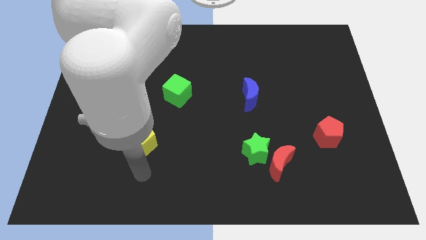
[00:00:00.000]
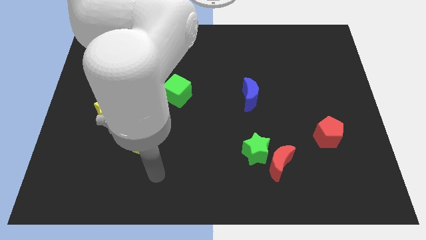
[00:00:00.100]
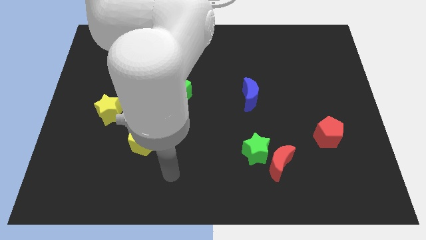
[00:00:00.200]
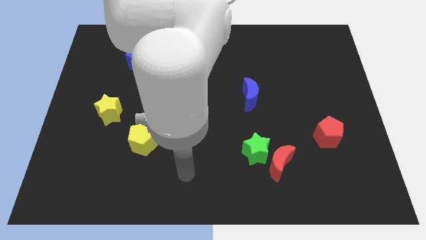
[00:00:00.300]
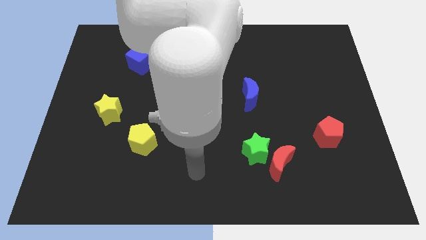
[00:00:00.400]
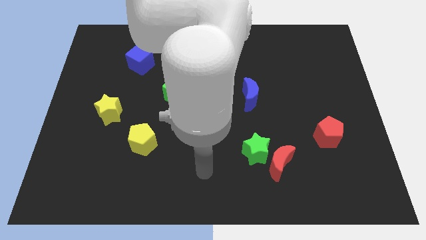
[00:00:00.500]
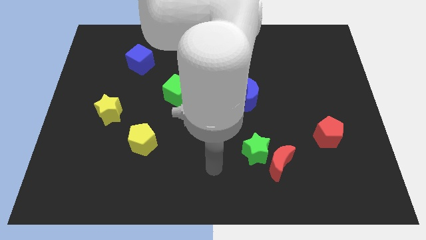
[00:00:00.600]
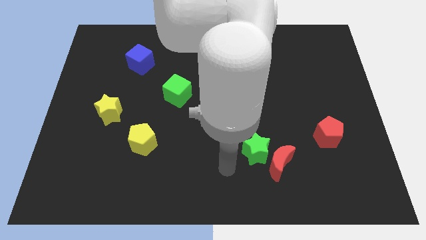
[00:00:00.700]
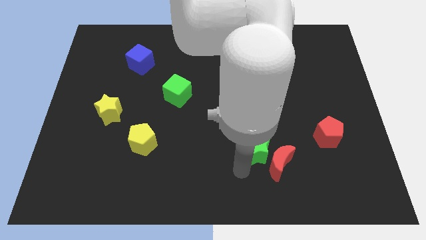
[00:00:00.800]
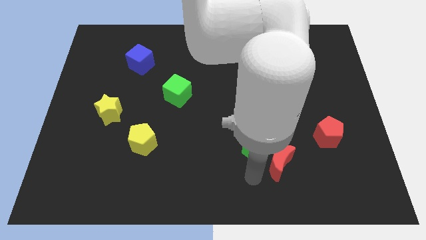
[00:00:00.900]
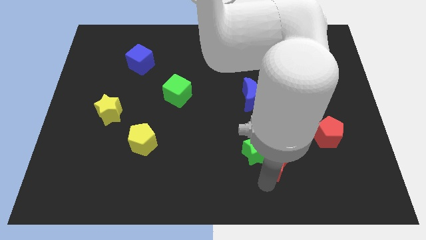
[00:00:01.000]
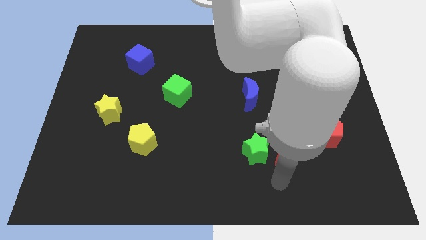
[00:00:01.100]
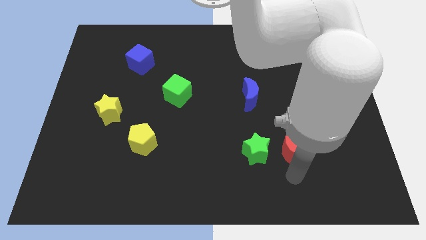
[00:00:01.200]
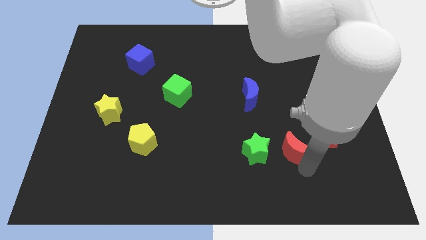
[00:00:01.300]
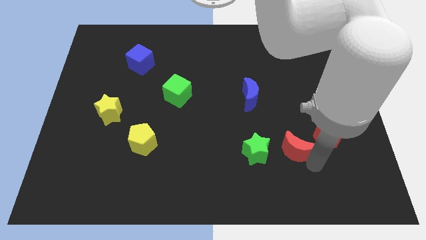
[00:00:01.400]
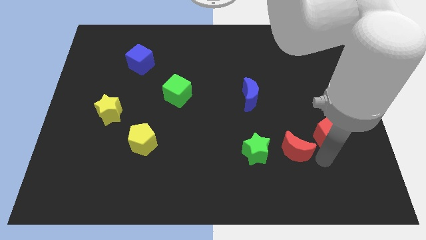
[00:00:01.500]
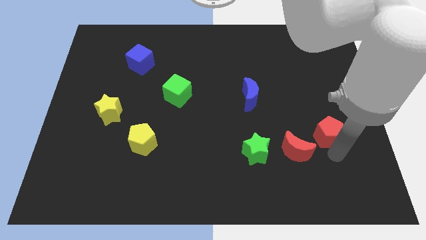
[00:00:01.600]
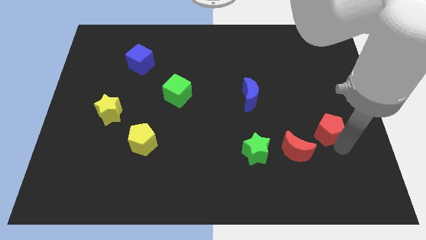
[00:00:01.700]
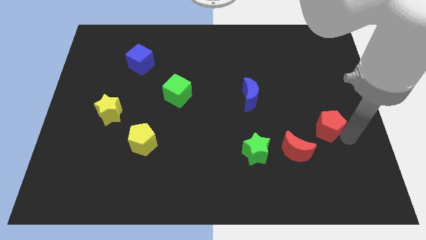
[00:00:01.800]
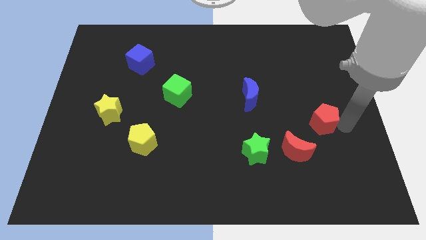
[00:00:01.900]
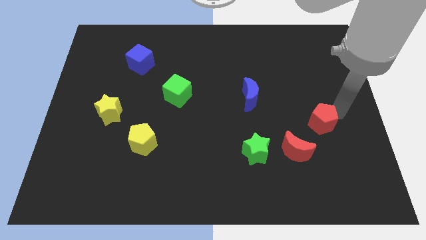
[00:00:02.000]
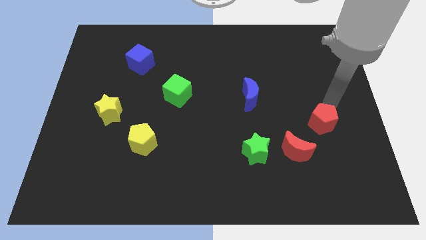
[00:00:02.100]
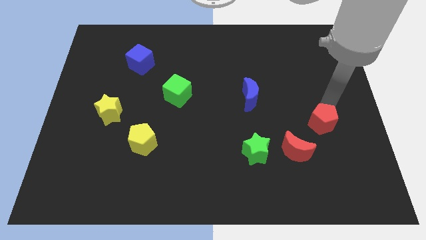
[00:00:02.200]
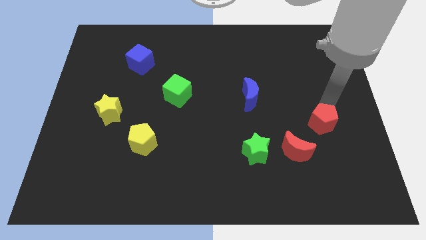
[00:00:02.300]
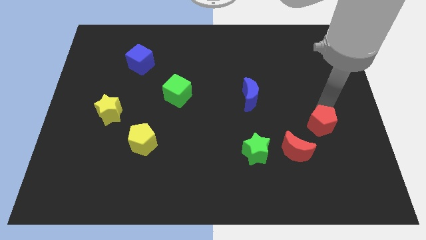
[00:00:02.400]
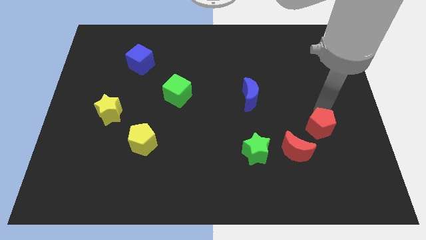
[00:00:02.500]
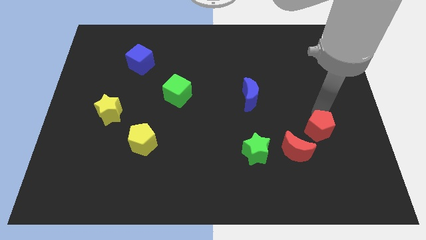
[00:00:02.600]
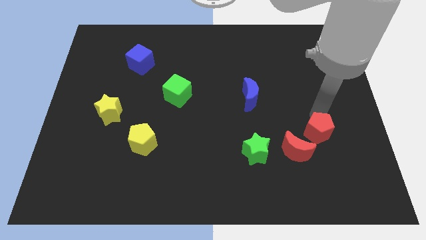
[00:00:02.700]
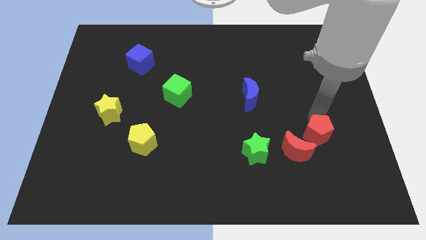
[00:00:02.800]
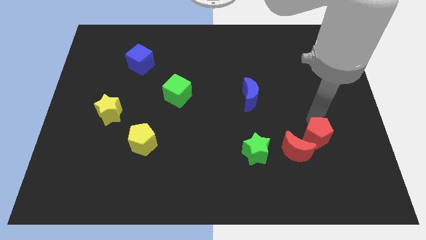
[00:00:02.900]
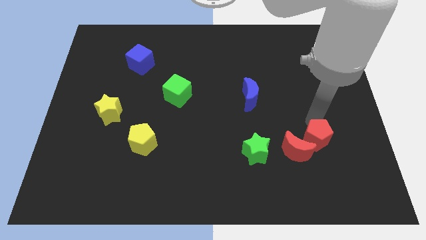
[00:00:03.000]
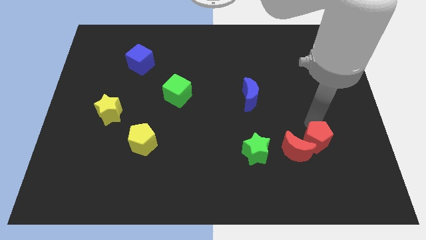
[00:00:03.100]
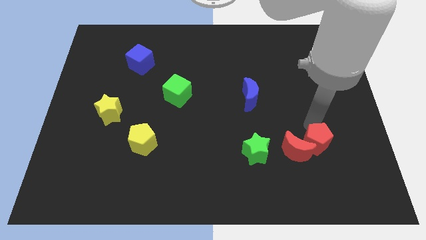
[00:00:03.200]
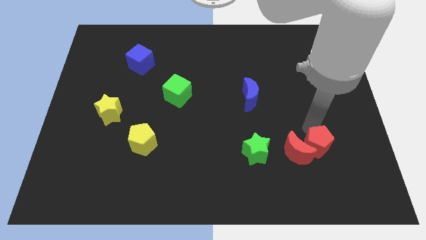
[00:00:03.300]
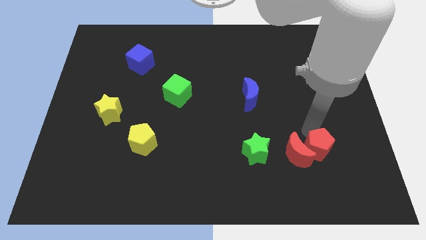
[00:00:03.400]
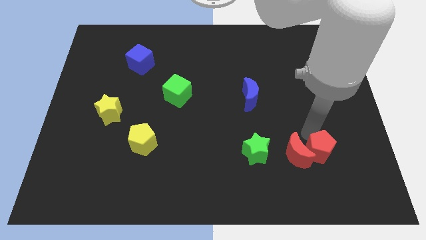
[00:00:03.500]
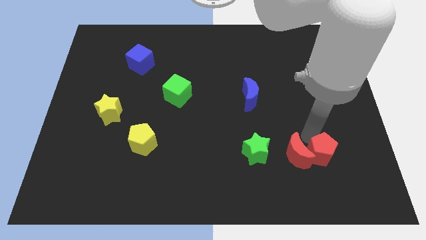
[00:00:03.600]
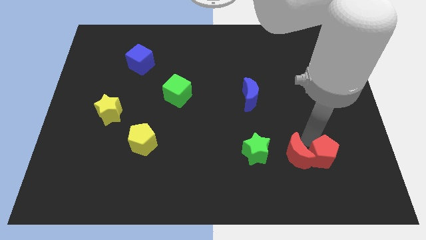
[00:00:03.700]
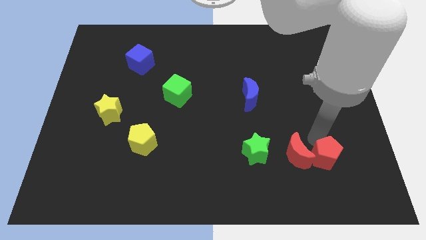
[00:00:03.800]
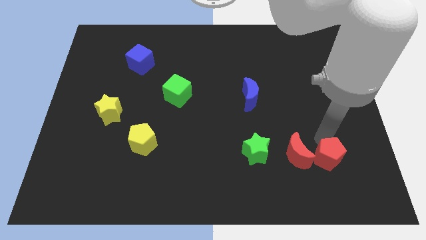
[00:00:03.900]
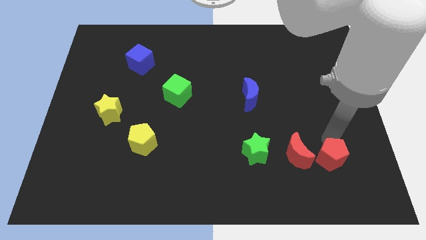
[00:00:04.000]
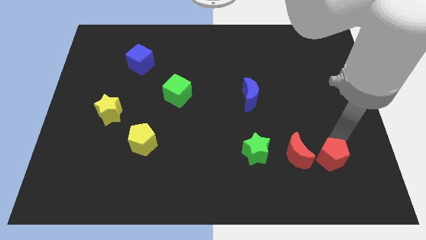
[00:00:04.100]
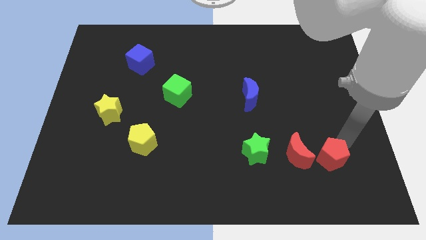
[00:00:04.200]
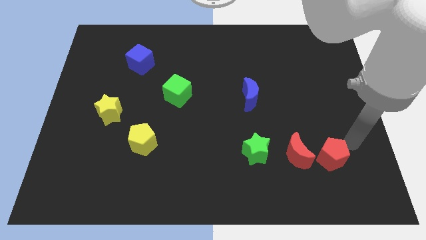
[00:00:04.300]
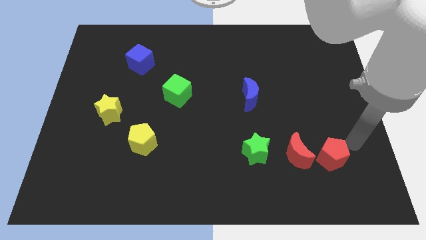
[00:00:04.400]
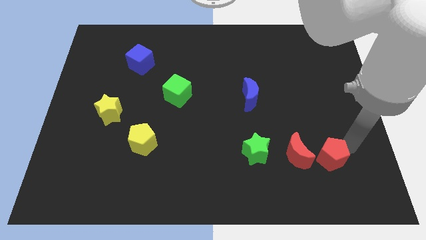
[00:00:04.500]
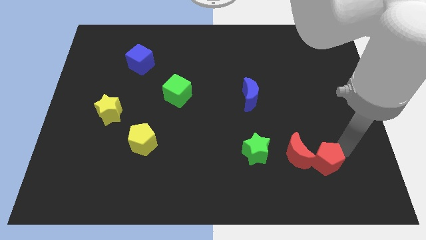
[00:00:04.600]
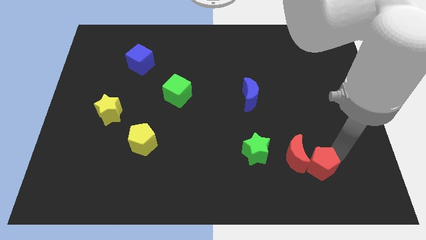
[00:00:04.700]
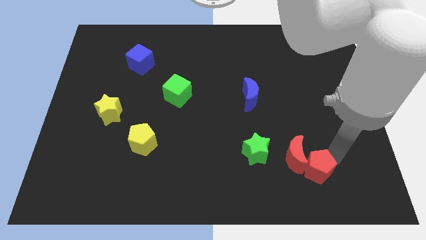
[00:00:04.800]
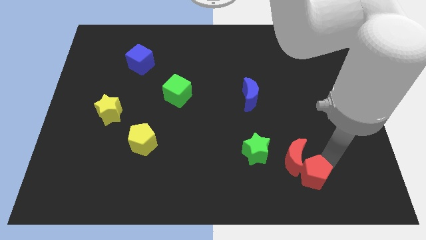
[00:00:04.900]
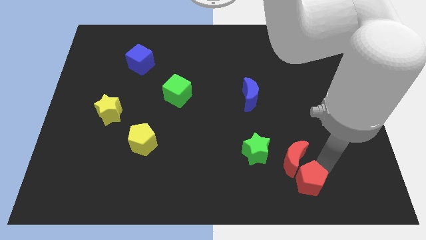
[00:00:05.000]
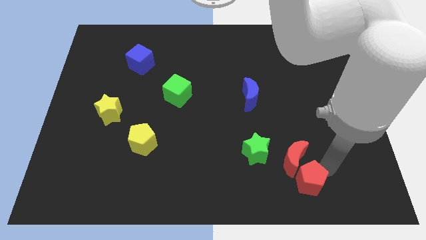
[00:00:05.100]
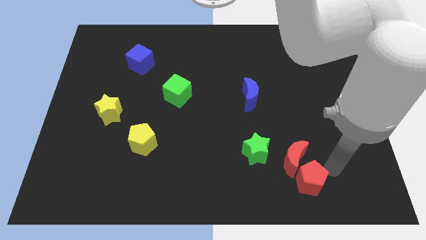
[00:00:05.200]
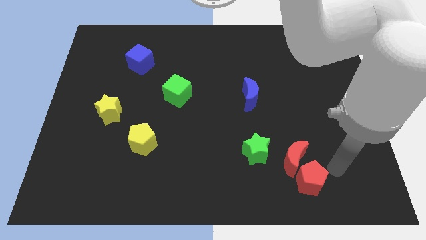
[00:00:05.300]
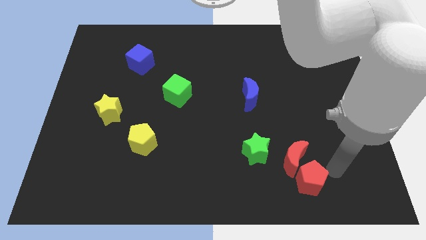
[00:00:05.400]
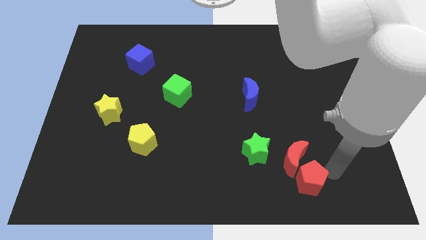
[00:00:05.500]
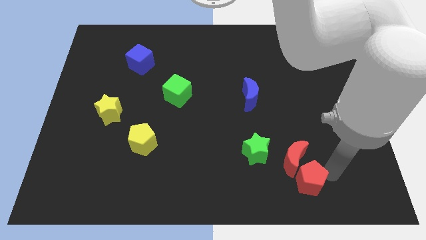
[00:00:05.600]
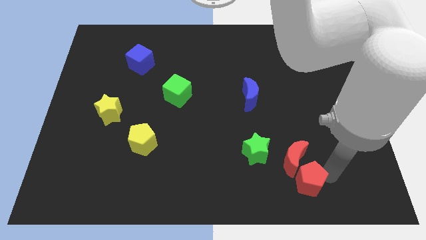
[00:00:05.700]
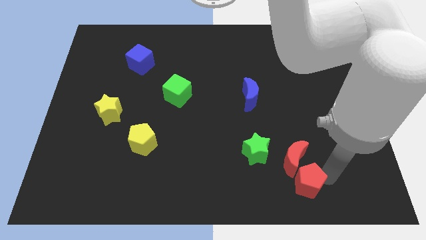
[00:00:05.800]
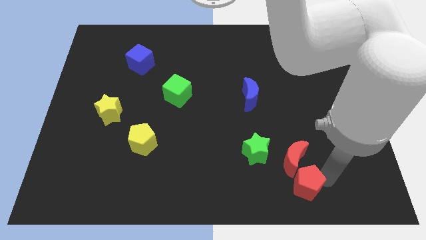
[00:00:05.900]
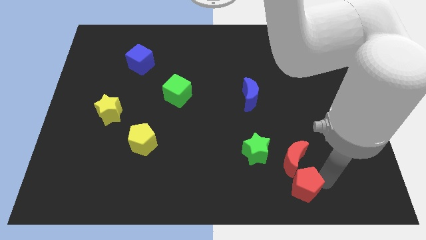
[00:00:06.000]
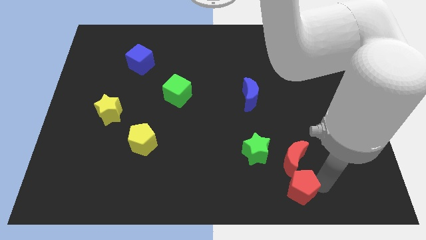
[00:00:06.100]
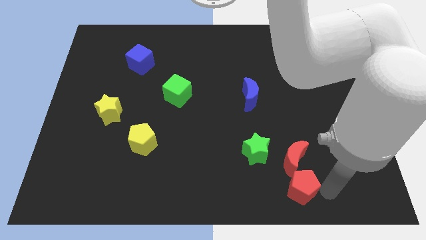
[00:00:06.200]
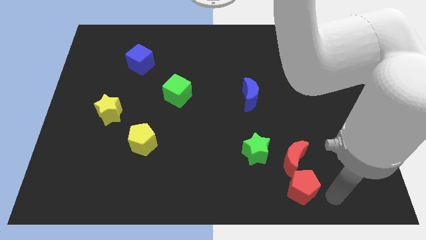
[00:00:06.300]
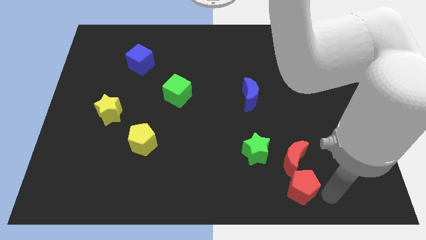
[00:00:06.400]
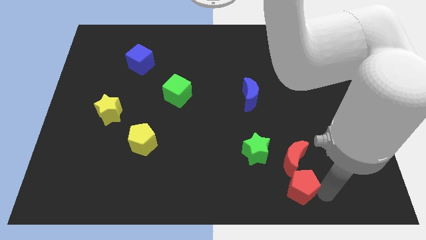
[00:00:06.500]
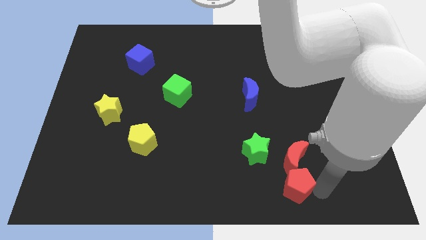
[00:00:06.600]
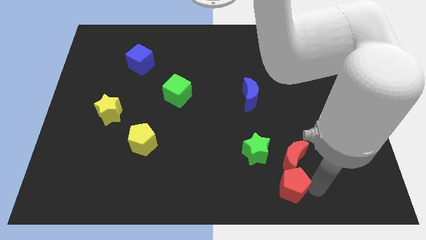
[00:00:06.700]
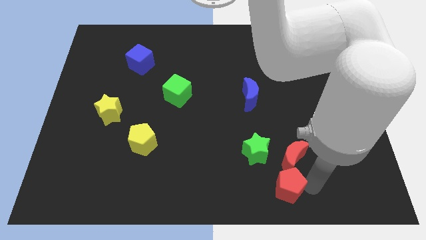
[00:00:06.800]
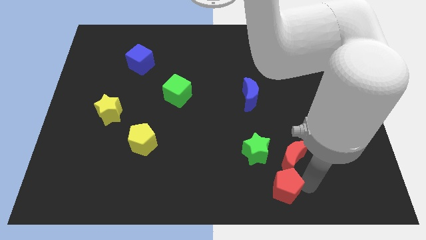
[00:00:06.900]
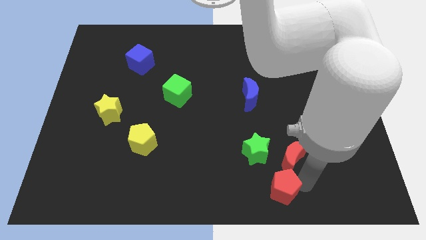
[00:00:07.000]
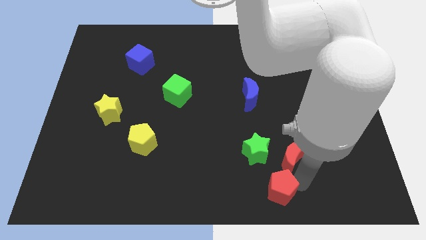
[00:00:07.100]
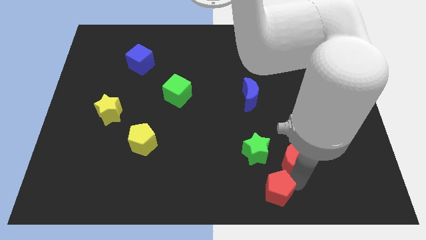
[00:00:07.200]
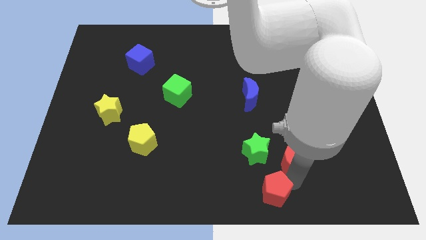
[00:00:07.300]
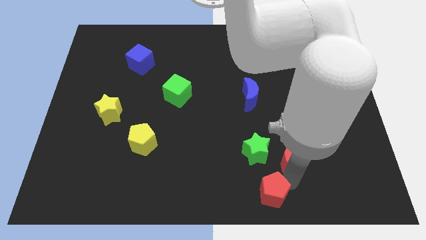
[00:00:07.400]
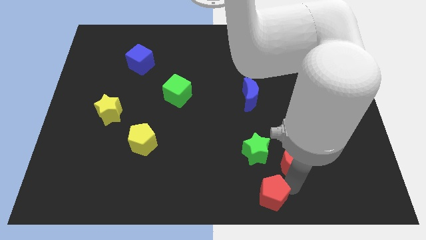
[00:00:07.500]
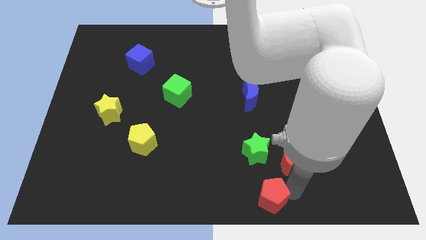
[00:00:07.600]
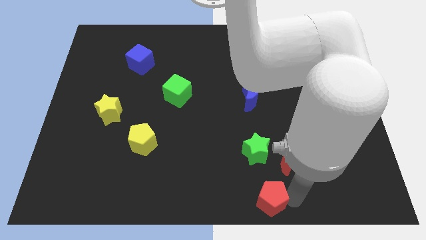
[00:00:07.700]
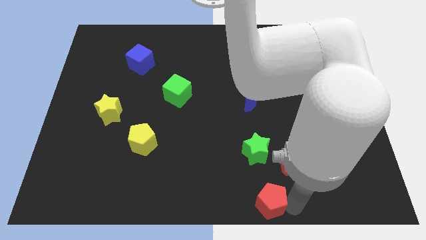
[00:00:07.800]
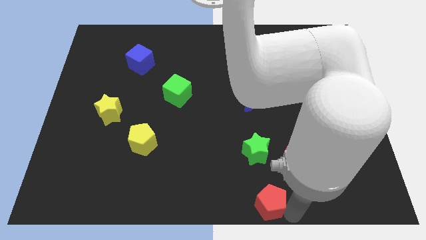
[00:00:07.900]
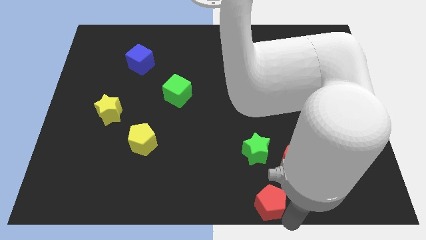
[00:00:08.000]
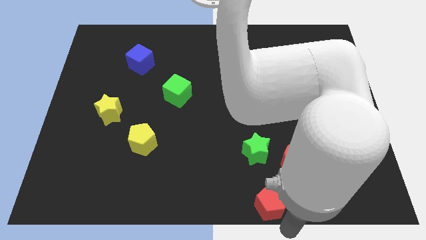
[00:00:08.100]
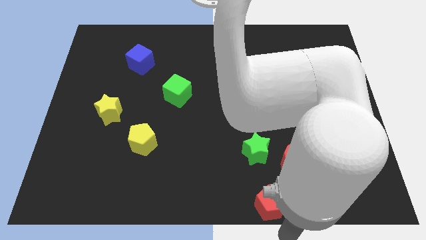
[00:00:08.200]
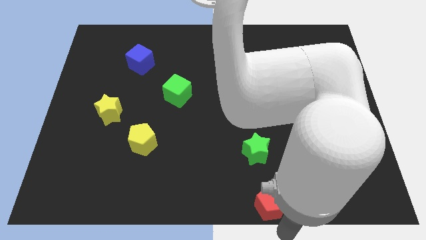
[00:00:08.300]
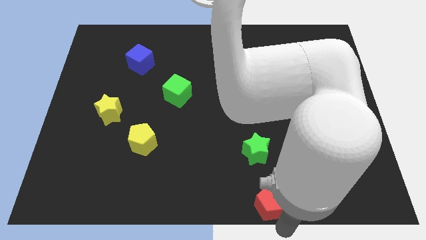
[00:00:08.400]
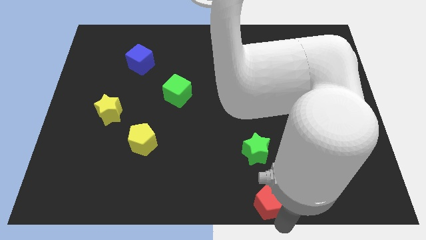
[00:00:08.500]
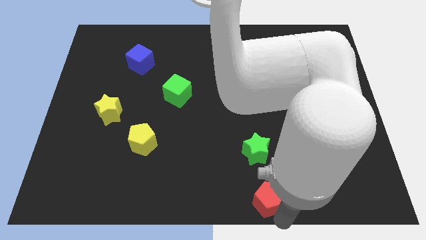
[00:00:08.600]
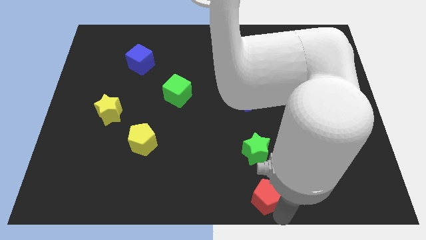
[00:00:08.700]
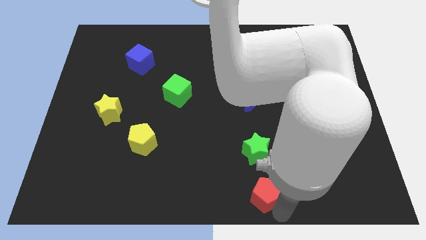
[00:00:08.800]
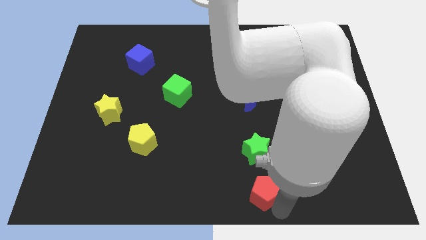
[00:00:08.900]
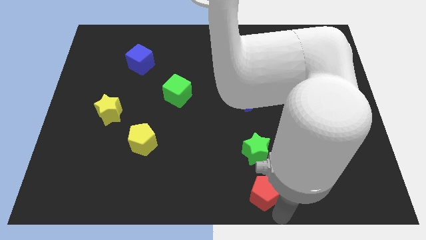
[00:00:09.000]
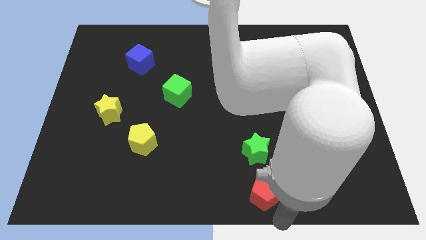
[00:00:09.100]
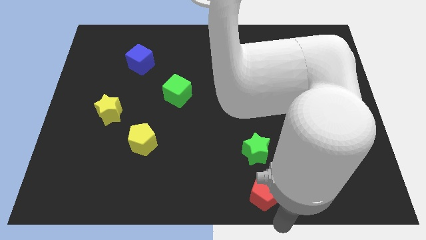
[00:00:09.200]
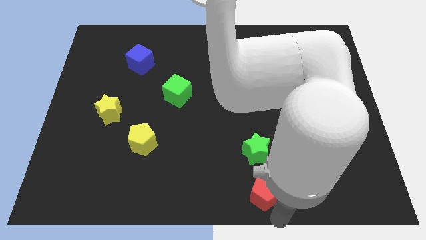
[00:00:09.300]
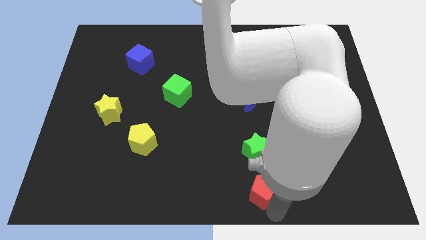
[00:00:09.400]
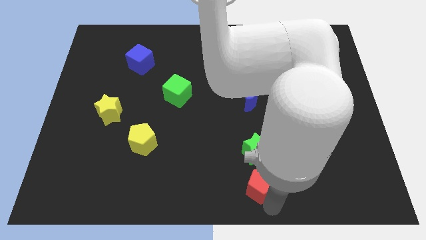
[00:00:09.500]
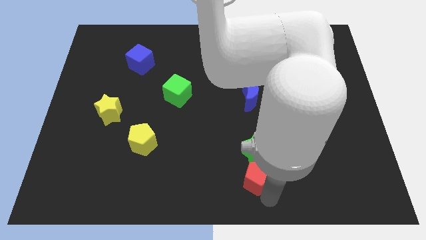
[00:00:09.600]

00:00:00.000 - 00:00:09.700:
push the red pentagon to the bottom left side of the green star
